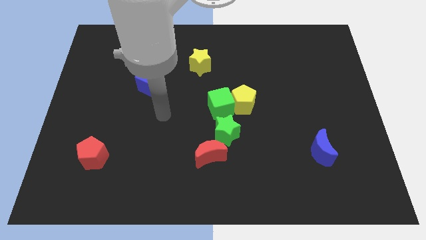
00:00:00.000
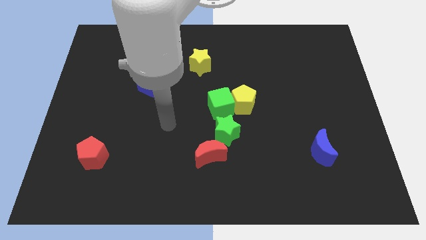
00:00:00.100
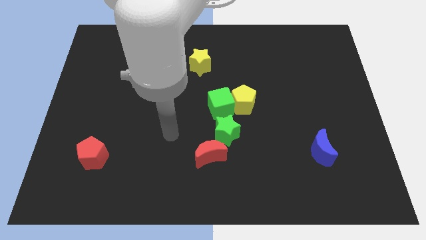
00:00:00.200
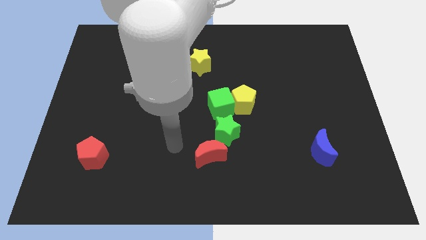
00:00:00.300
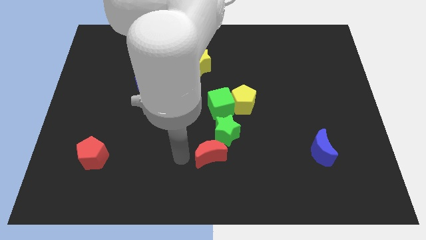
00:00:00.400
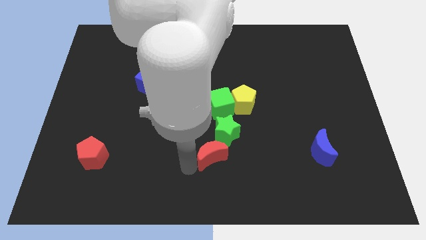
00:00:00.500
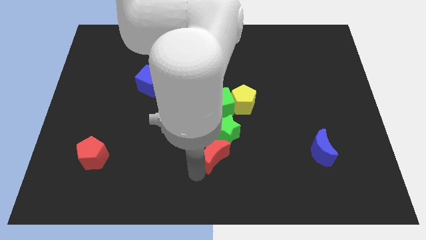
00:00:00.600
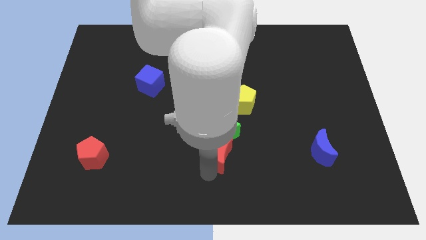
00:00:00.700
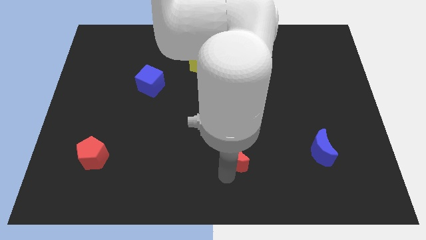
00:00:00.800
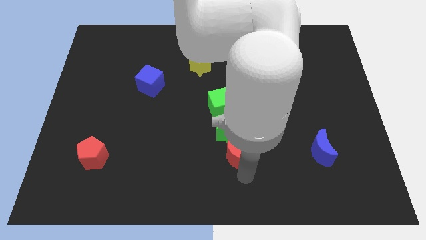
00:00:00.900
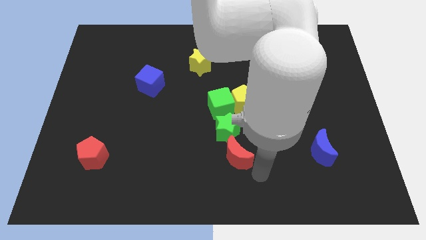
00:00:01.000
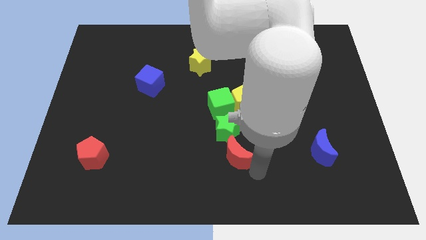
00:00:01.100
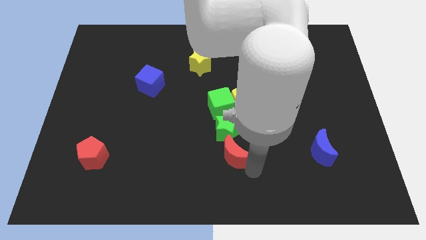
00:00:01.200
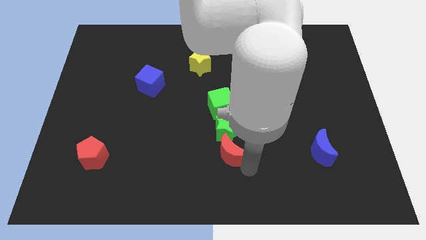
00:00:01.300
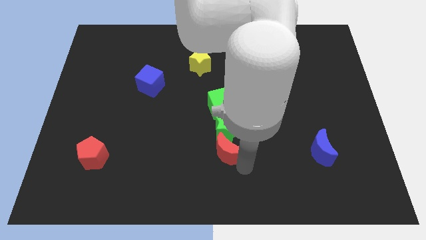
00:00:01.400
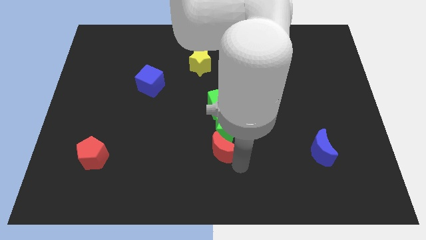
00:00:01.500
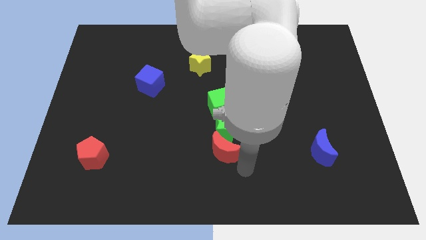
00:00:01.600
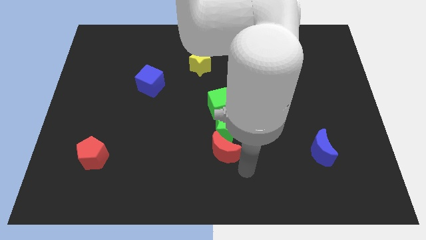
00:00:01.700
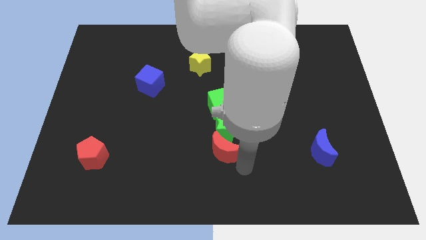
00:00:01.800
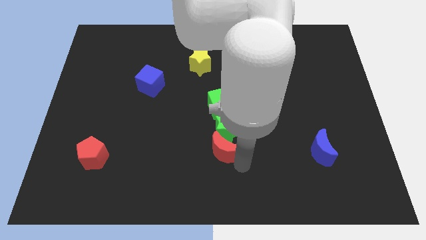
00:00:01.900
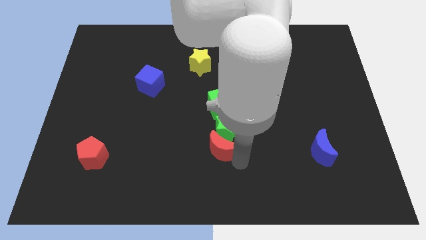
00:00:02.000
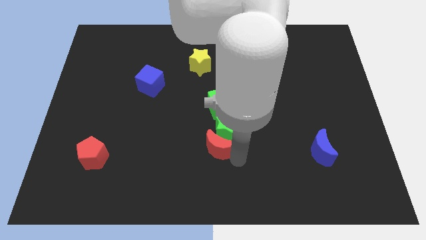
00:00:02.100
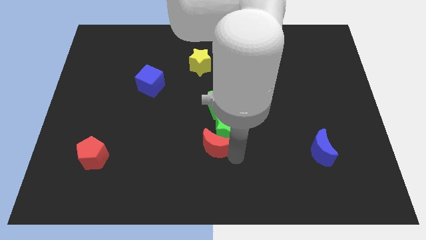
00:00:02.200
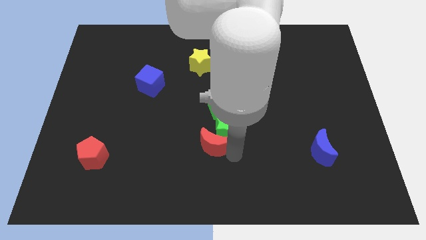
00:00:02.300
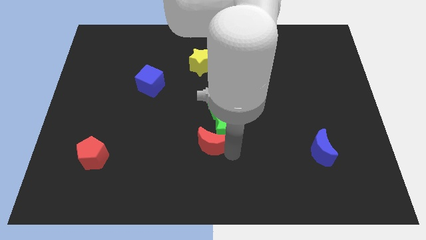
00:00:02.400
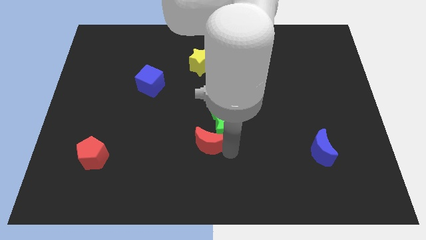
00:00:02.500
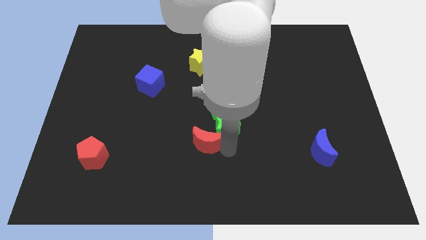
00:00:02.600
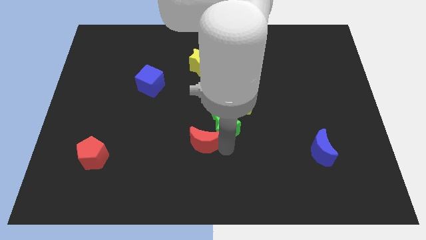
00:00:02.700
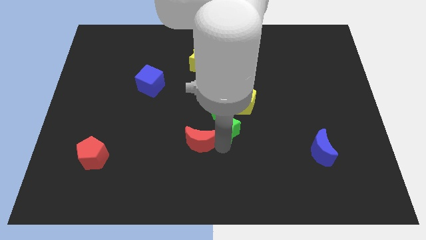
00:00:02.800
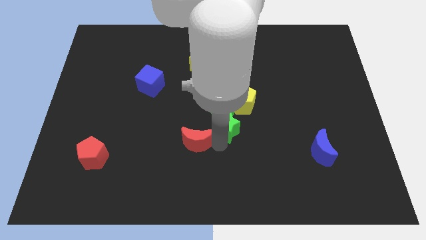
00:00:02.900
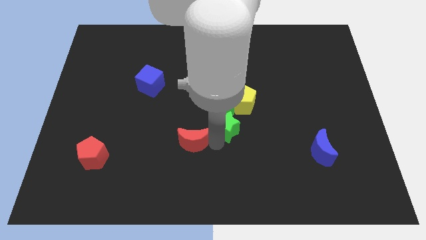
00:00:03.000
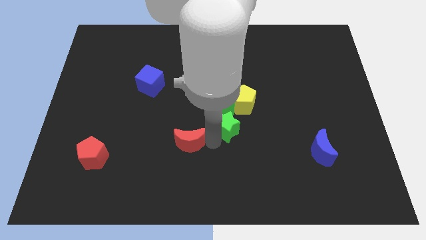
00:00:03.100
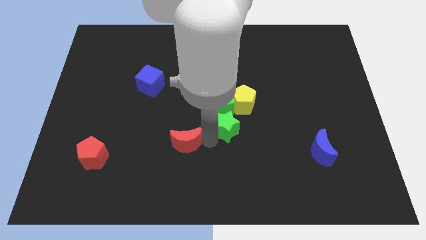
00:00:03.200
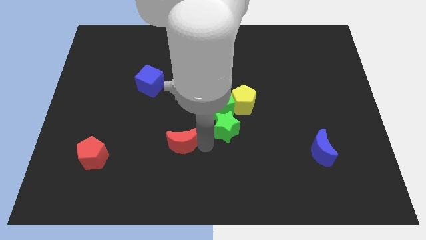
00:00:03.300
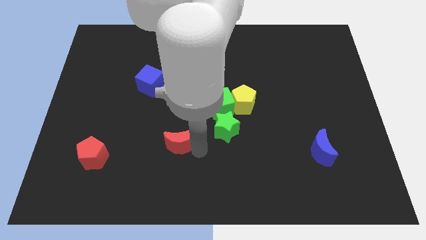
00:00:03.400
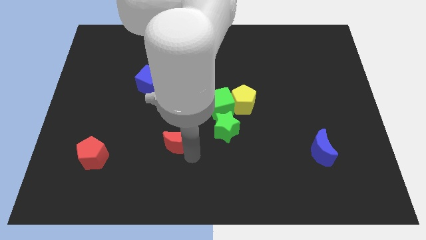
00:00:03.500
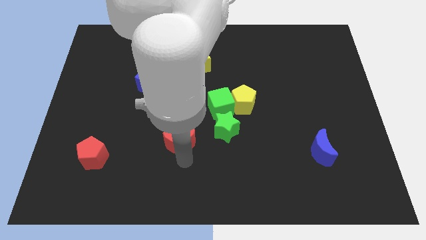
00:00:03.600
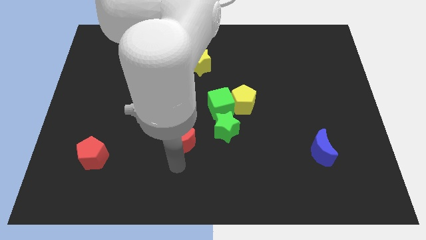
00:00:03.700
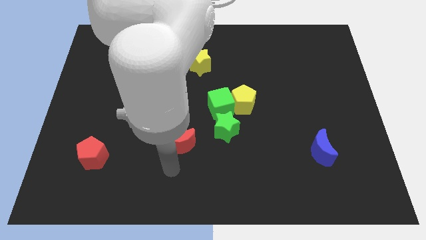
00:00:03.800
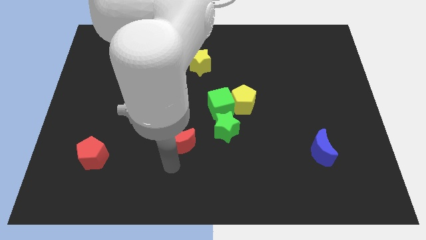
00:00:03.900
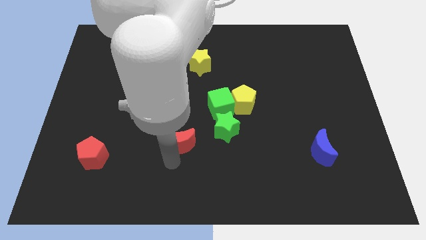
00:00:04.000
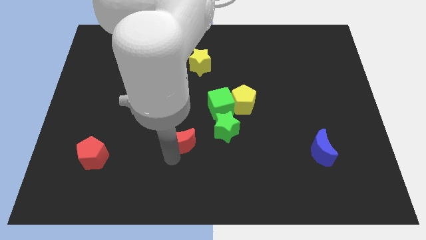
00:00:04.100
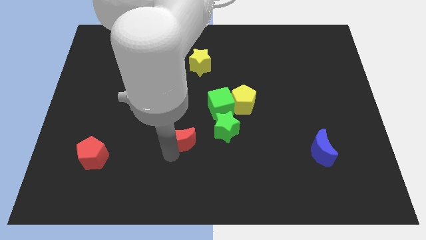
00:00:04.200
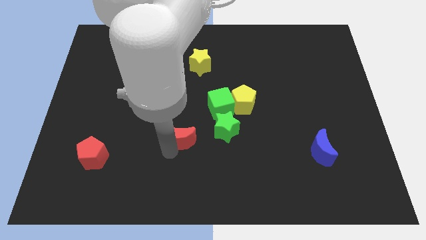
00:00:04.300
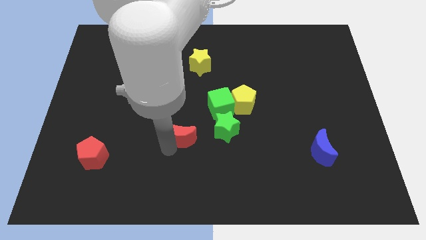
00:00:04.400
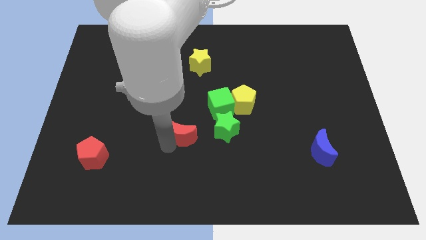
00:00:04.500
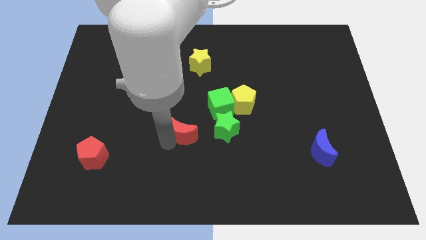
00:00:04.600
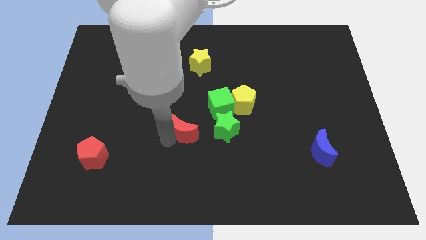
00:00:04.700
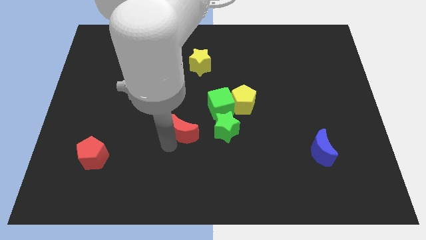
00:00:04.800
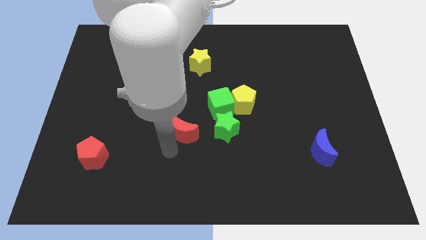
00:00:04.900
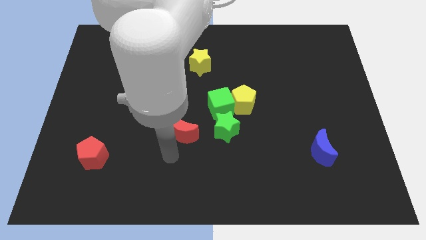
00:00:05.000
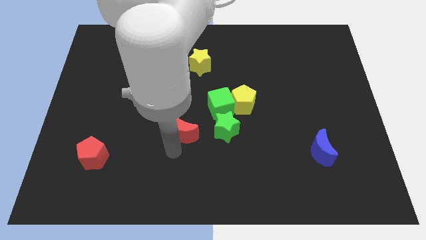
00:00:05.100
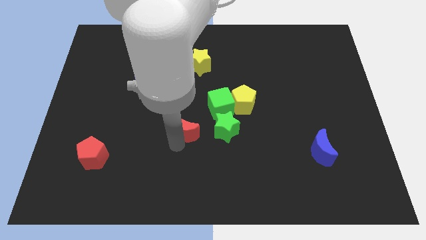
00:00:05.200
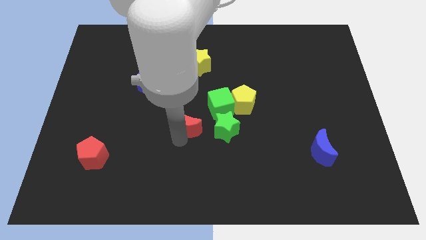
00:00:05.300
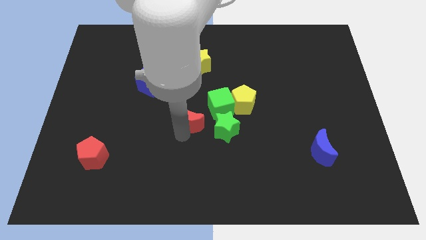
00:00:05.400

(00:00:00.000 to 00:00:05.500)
move the red moon a bit up

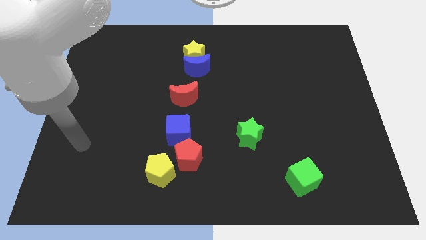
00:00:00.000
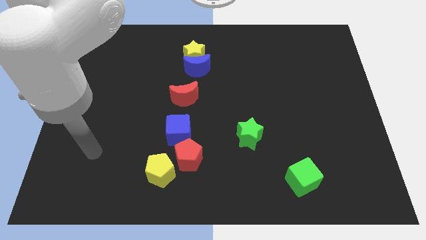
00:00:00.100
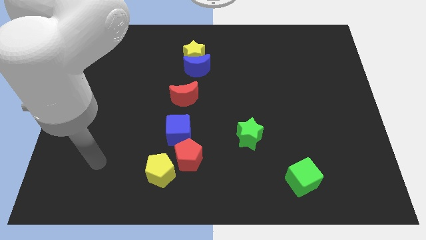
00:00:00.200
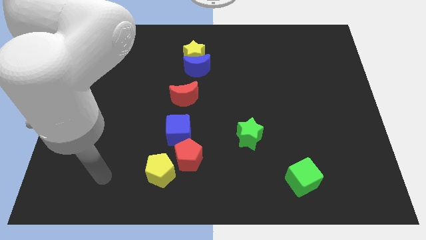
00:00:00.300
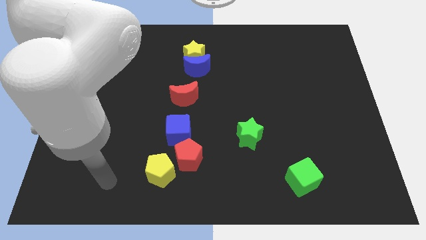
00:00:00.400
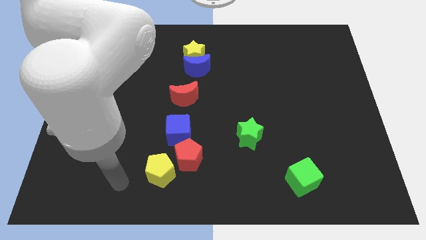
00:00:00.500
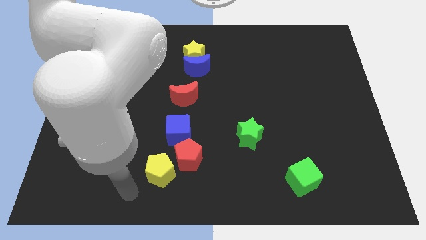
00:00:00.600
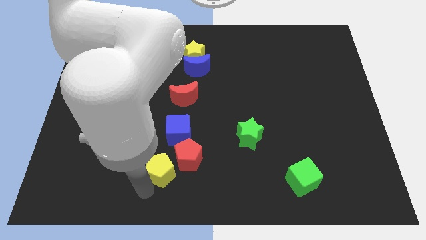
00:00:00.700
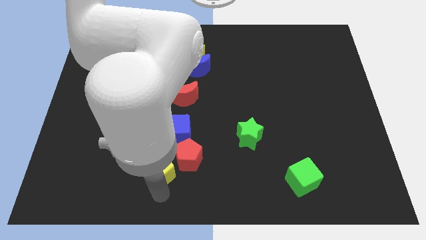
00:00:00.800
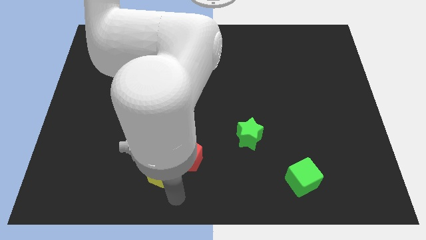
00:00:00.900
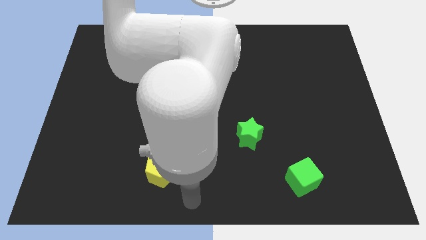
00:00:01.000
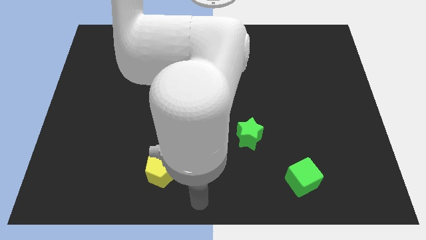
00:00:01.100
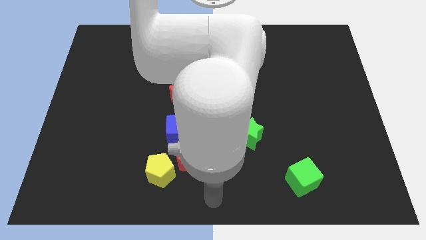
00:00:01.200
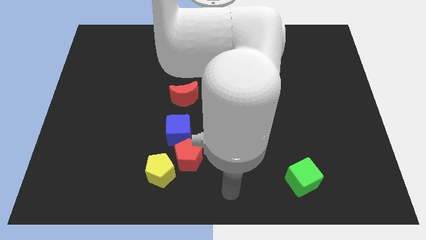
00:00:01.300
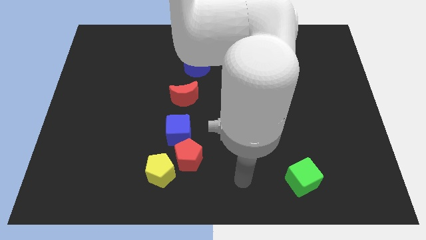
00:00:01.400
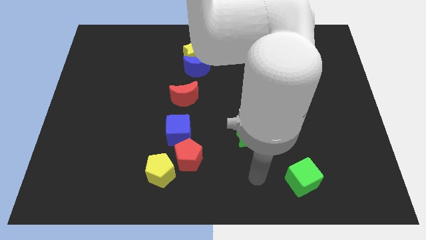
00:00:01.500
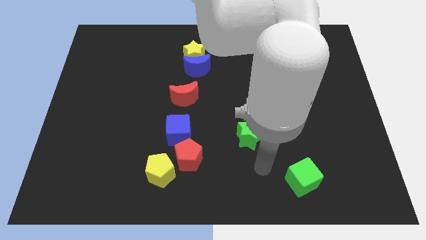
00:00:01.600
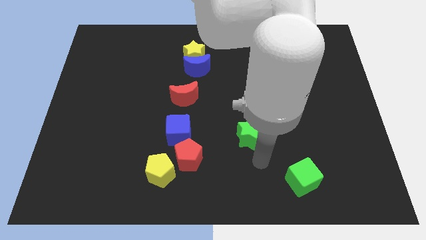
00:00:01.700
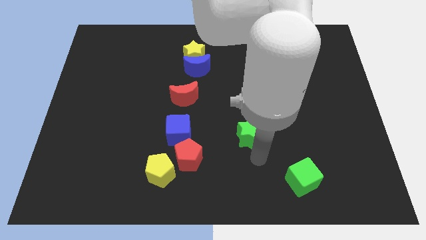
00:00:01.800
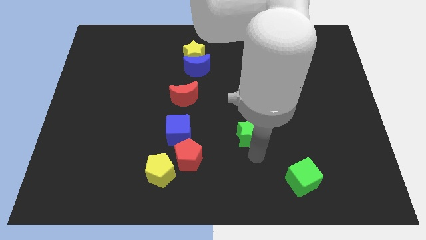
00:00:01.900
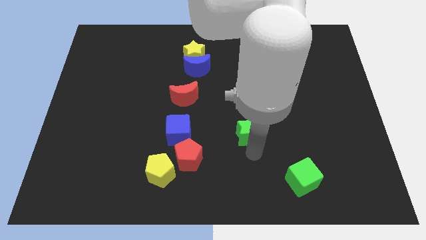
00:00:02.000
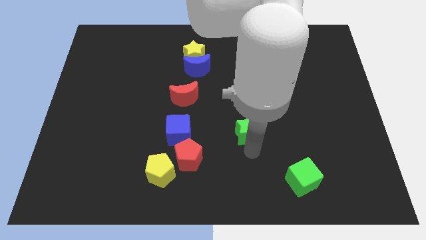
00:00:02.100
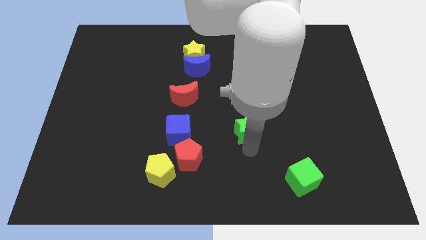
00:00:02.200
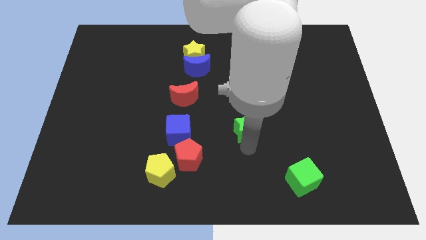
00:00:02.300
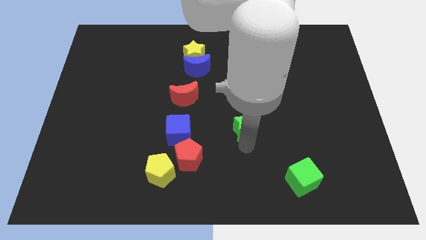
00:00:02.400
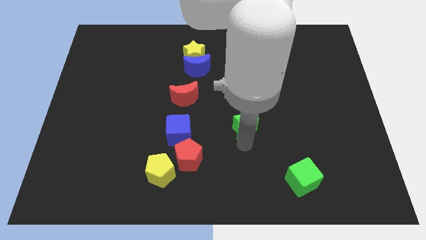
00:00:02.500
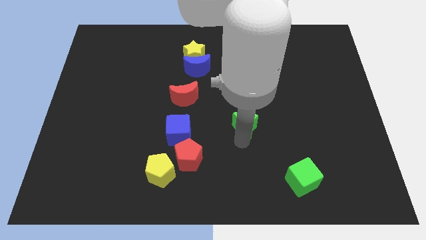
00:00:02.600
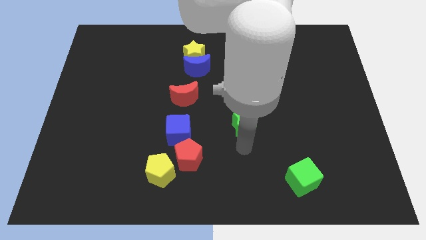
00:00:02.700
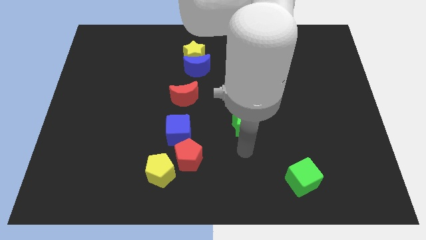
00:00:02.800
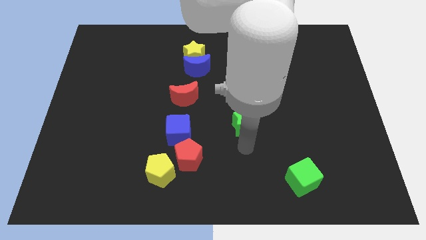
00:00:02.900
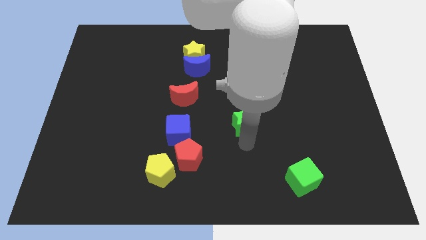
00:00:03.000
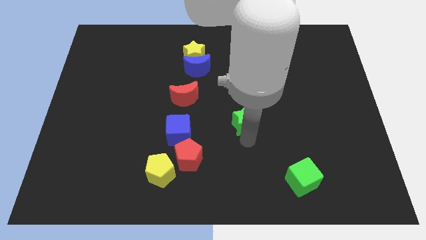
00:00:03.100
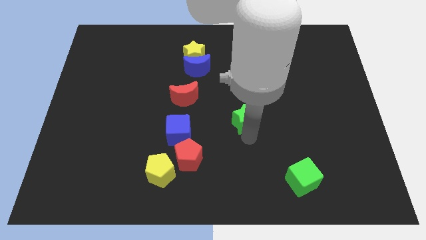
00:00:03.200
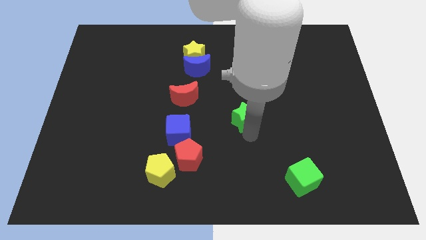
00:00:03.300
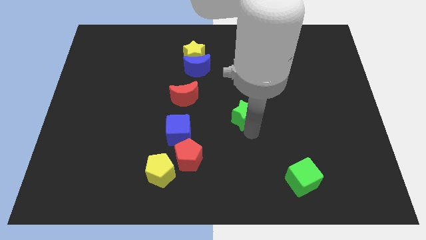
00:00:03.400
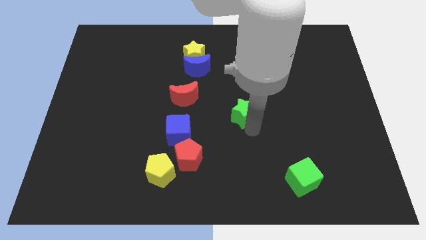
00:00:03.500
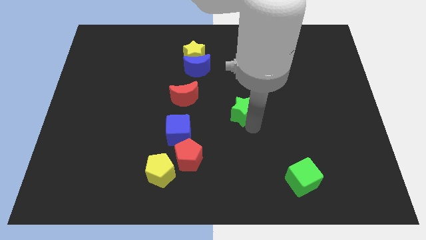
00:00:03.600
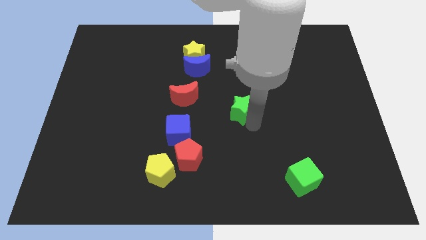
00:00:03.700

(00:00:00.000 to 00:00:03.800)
slide the green star a little bit upwards
